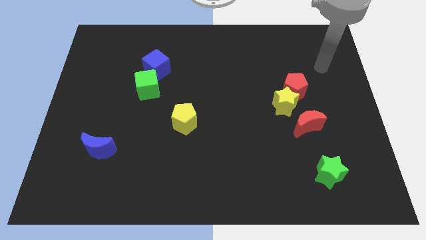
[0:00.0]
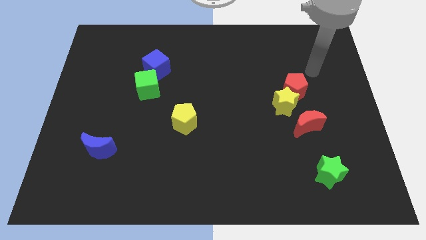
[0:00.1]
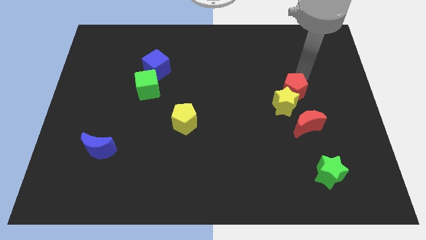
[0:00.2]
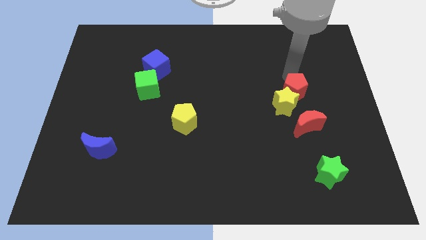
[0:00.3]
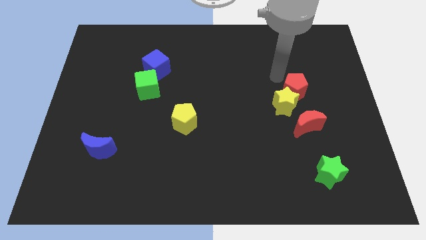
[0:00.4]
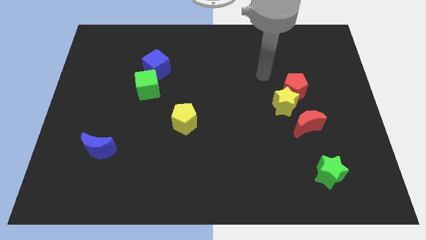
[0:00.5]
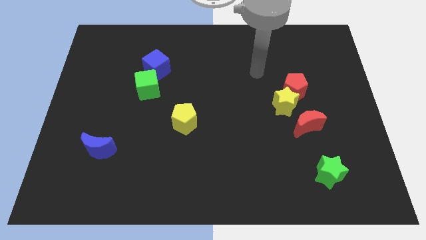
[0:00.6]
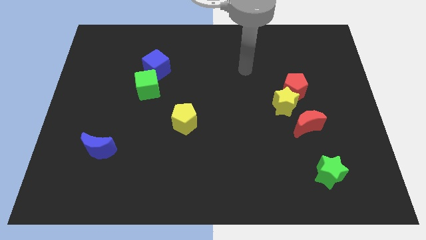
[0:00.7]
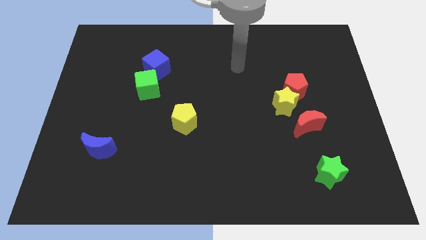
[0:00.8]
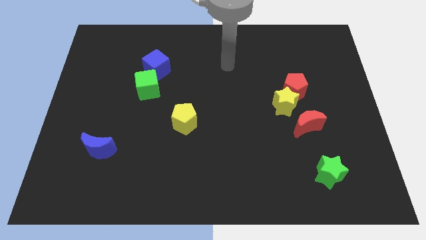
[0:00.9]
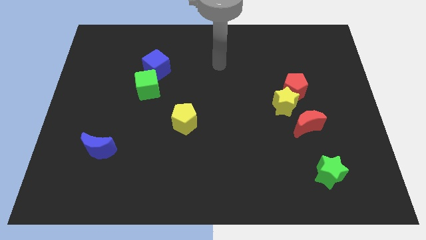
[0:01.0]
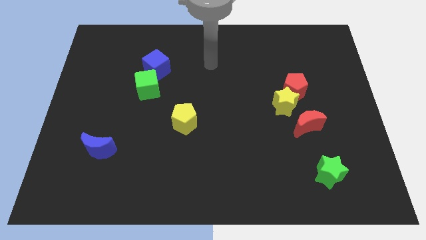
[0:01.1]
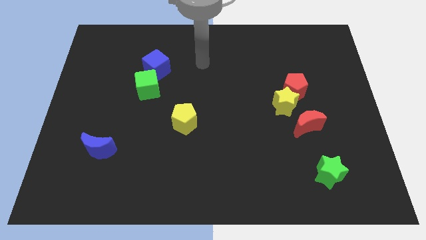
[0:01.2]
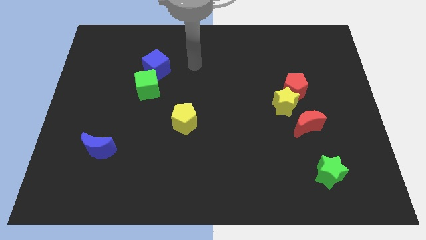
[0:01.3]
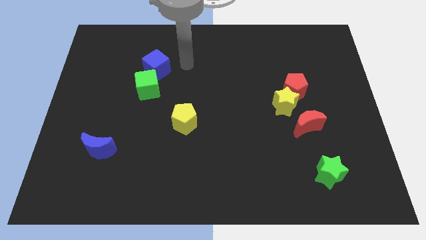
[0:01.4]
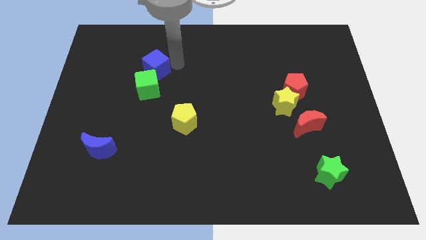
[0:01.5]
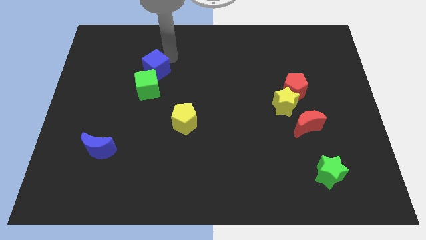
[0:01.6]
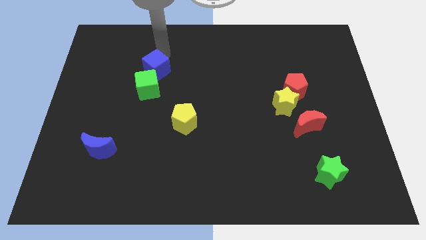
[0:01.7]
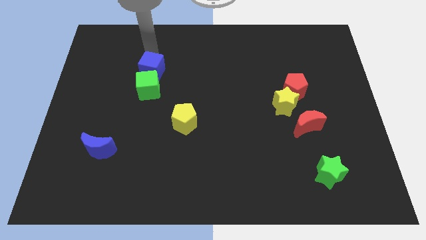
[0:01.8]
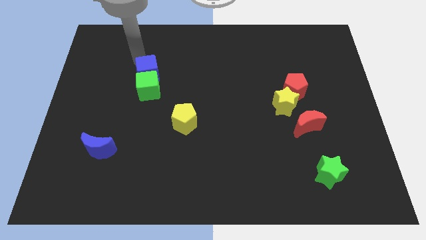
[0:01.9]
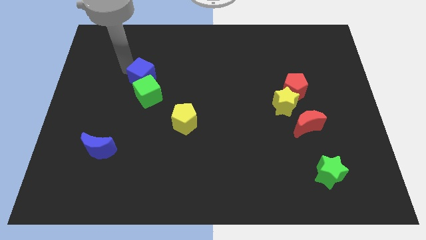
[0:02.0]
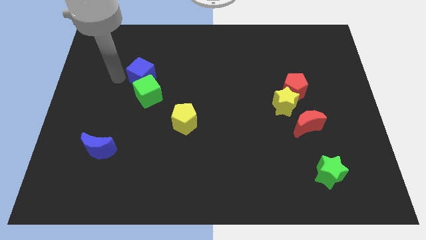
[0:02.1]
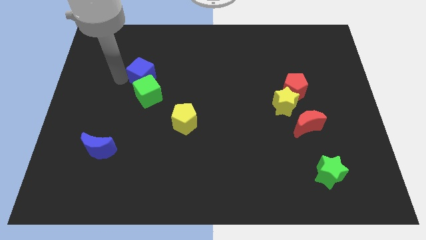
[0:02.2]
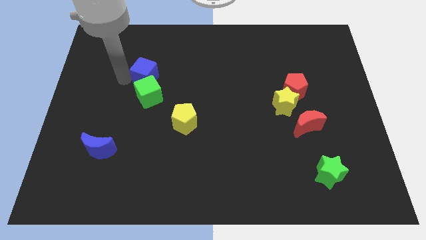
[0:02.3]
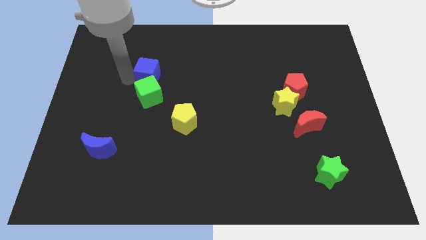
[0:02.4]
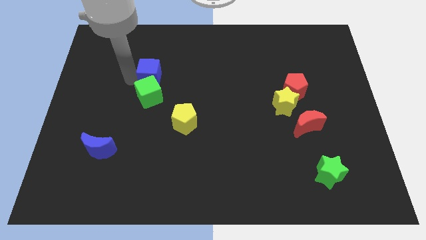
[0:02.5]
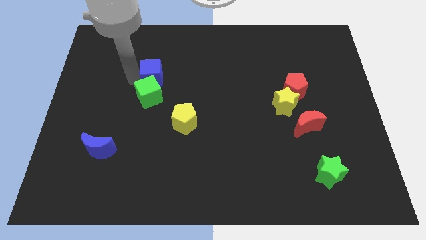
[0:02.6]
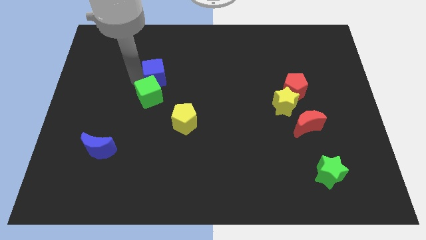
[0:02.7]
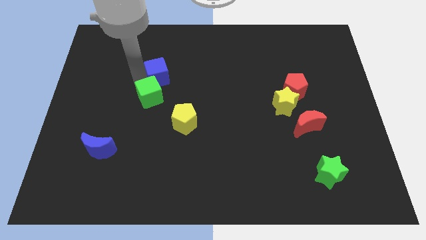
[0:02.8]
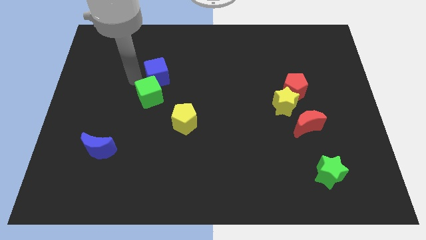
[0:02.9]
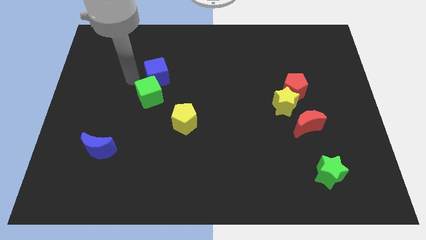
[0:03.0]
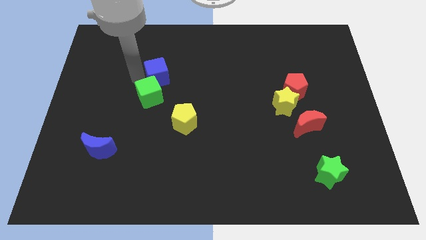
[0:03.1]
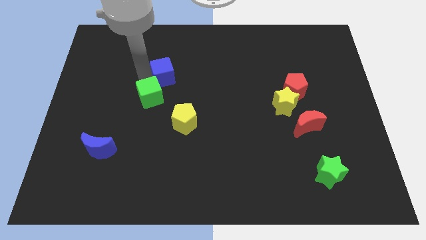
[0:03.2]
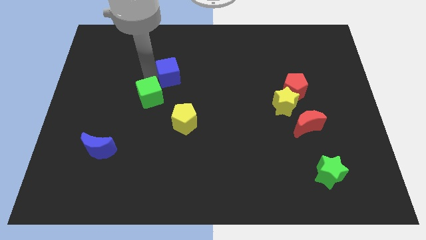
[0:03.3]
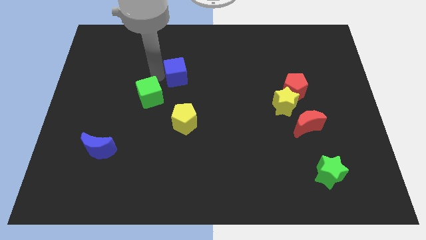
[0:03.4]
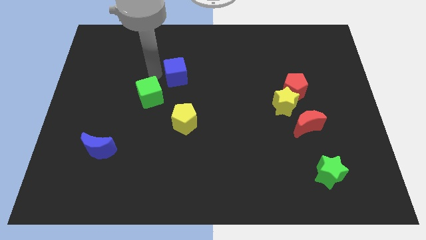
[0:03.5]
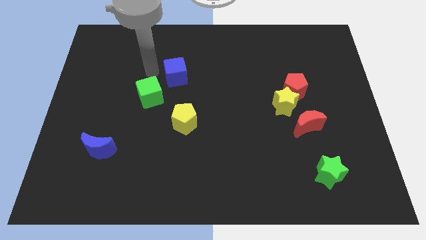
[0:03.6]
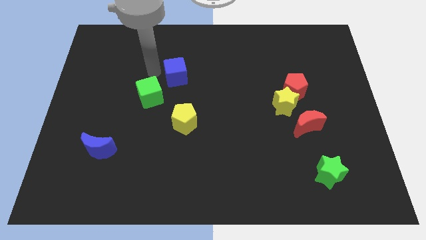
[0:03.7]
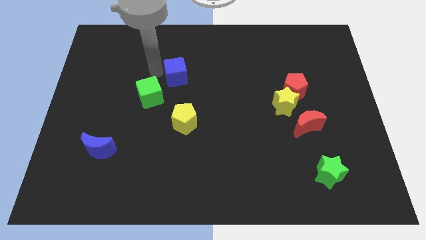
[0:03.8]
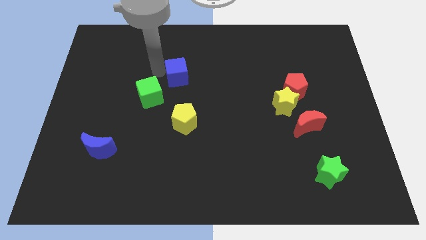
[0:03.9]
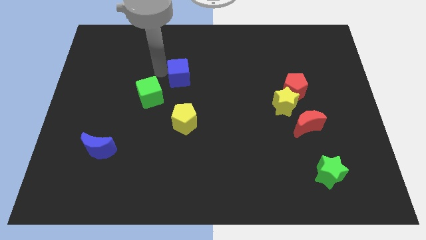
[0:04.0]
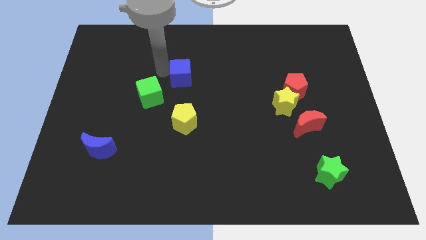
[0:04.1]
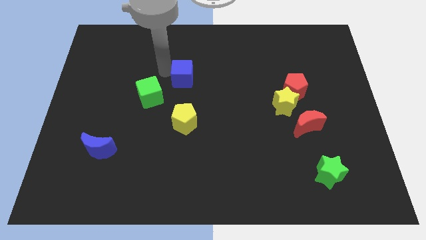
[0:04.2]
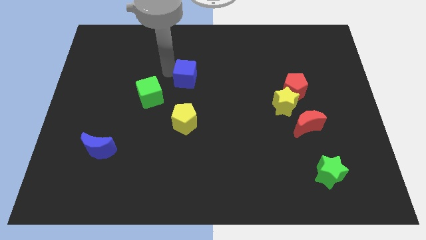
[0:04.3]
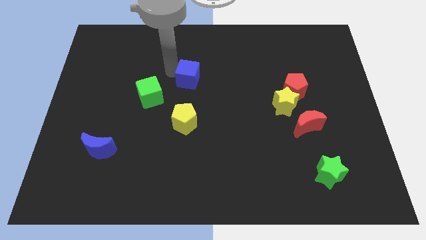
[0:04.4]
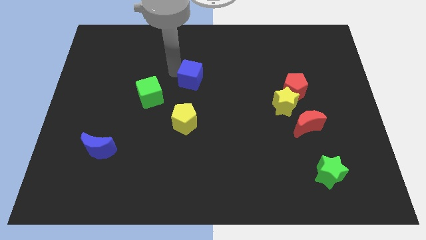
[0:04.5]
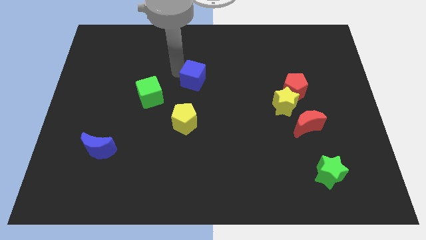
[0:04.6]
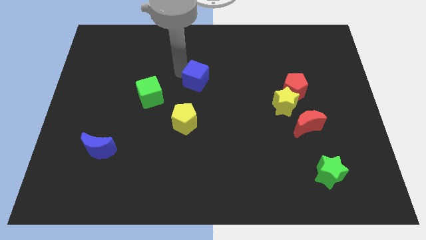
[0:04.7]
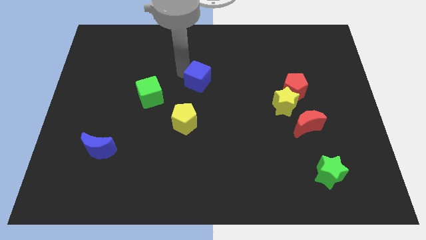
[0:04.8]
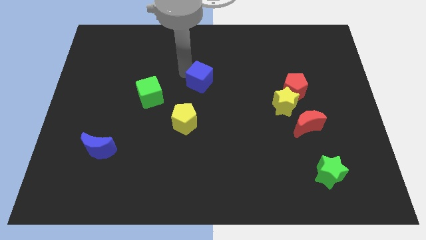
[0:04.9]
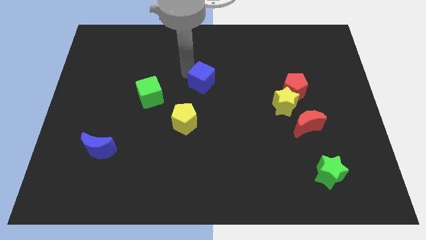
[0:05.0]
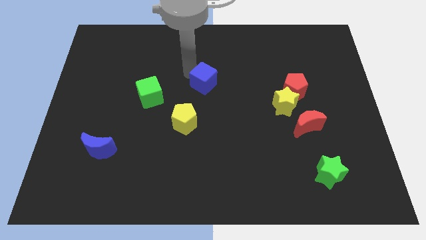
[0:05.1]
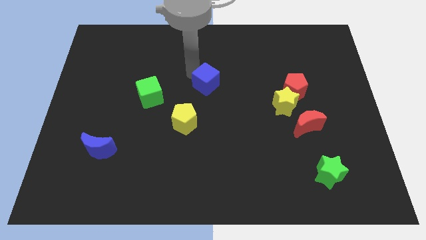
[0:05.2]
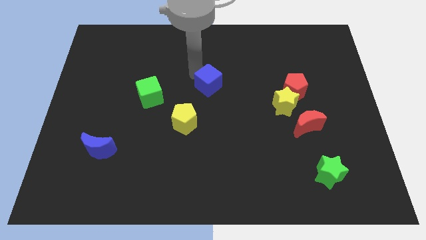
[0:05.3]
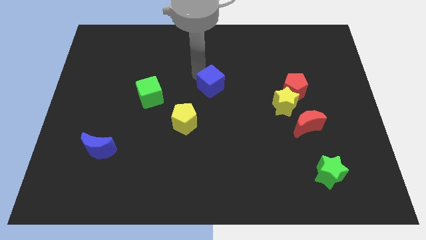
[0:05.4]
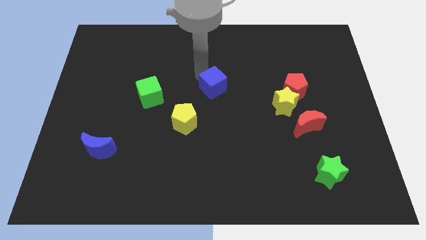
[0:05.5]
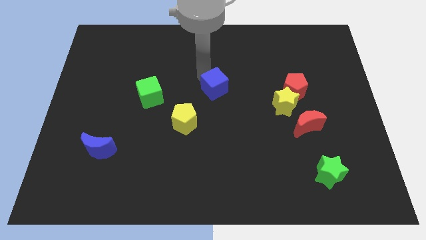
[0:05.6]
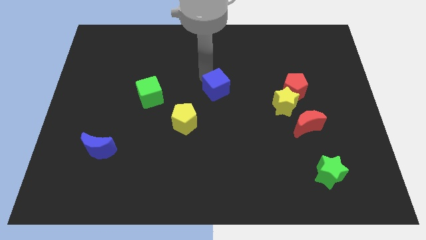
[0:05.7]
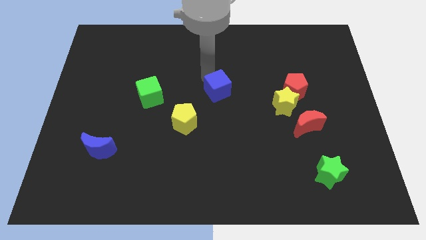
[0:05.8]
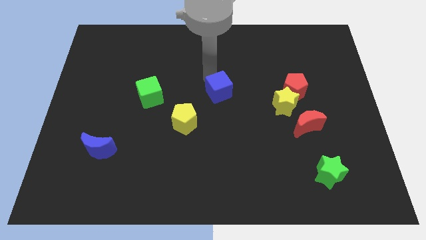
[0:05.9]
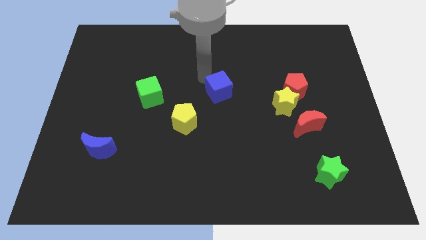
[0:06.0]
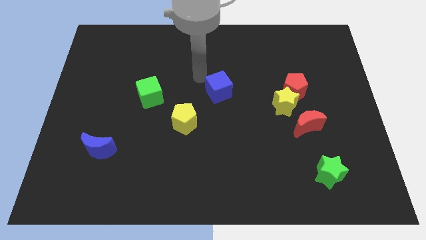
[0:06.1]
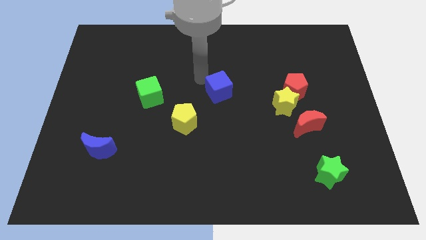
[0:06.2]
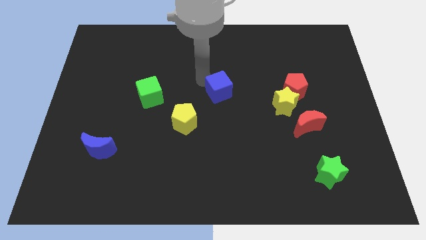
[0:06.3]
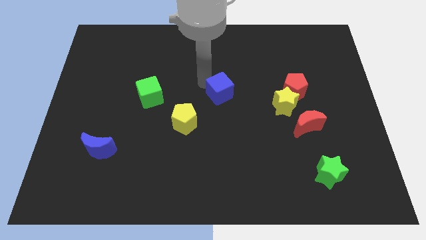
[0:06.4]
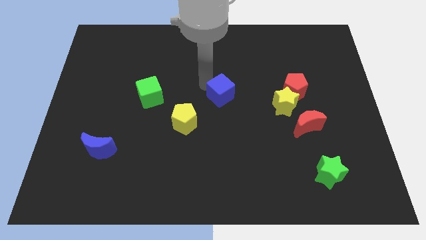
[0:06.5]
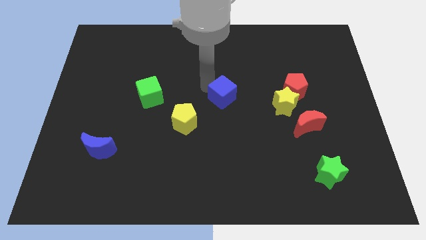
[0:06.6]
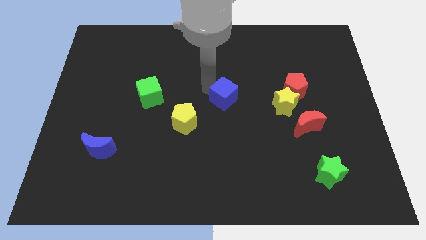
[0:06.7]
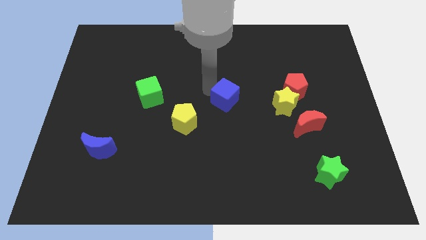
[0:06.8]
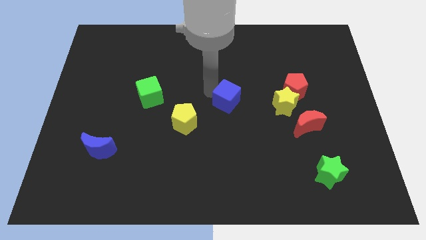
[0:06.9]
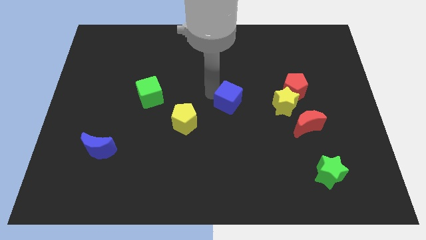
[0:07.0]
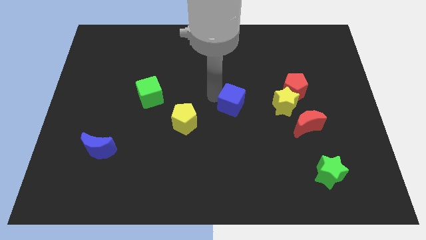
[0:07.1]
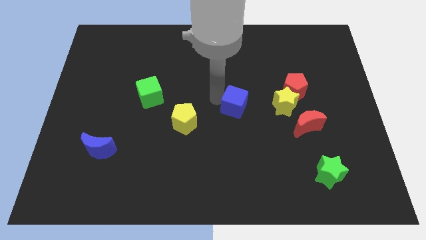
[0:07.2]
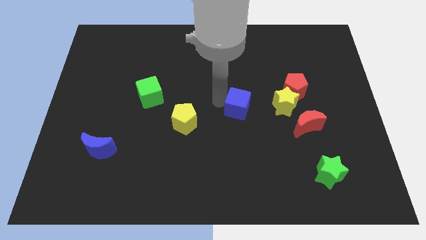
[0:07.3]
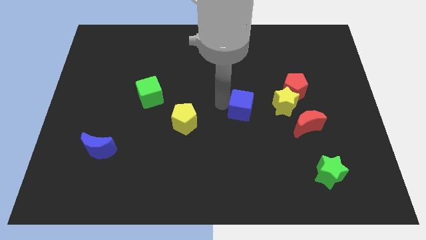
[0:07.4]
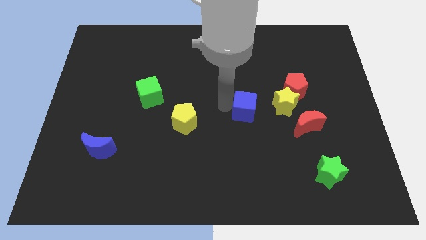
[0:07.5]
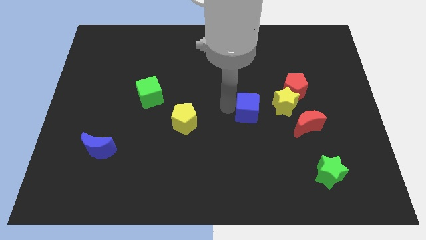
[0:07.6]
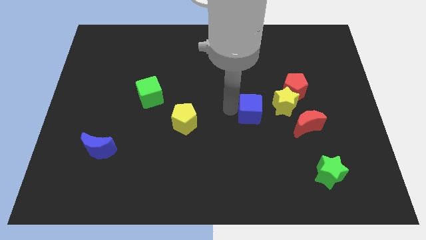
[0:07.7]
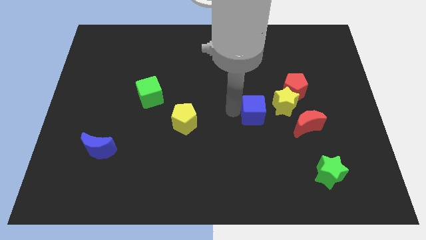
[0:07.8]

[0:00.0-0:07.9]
move the blue cube diagonally down and to the left of the red pentagon
